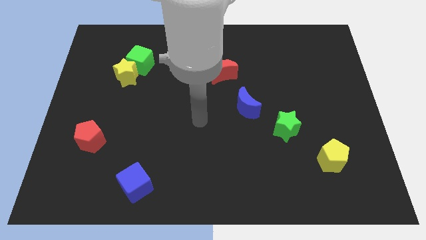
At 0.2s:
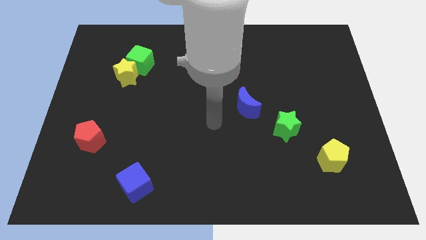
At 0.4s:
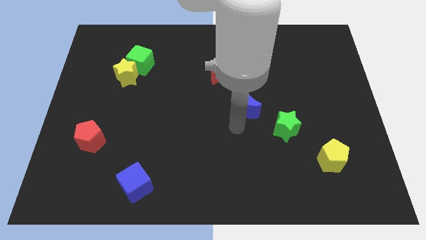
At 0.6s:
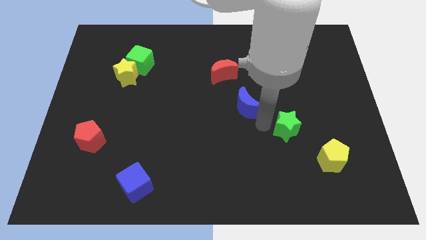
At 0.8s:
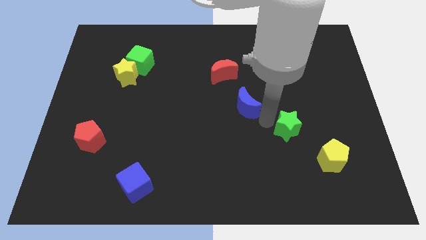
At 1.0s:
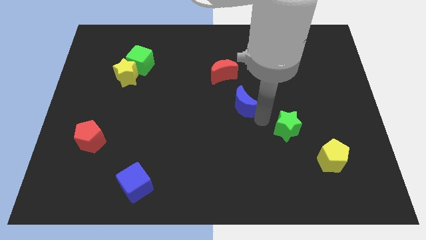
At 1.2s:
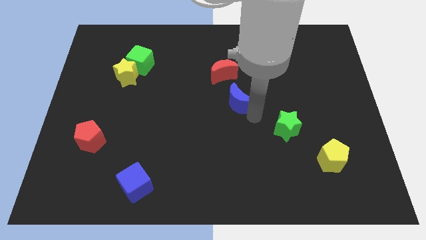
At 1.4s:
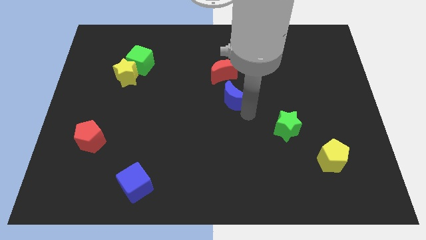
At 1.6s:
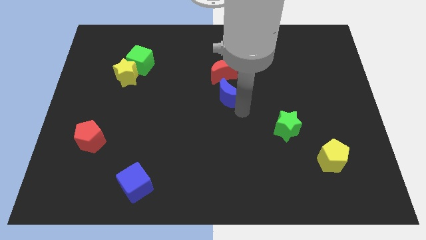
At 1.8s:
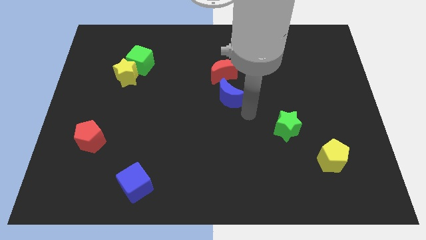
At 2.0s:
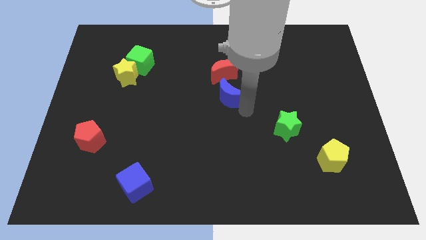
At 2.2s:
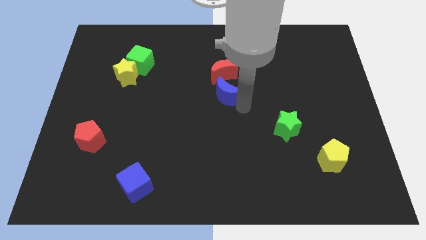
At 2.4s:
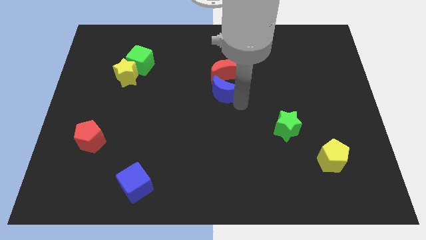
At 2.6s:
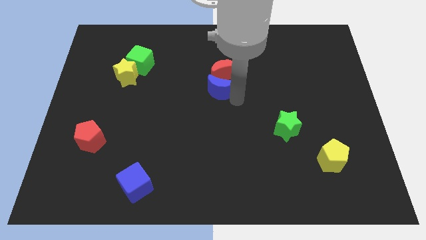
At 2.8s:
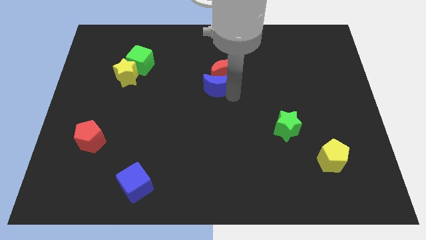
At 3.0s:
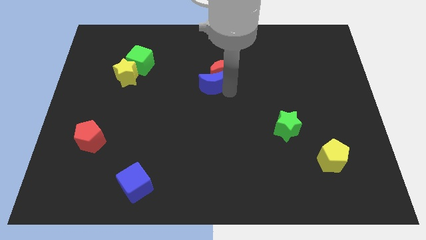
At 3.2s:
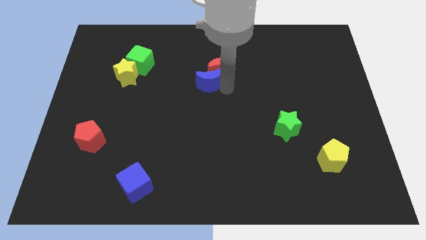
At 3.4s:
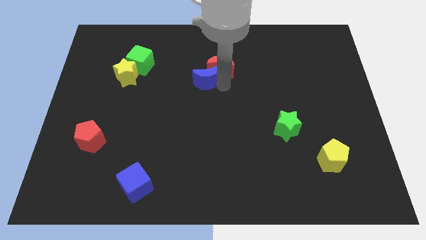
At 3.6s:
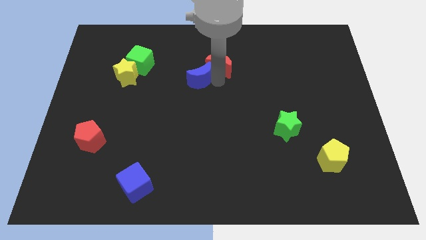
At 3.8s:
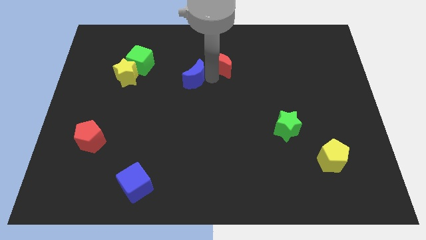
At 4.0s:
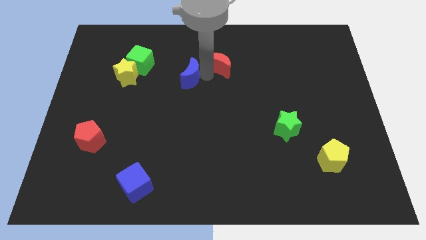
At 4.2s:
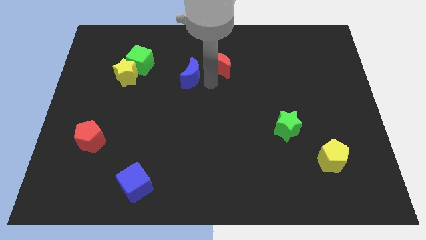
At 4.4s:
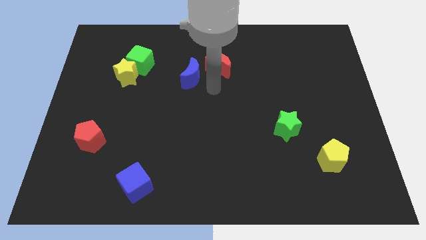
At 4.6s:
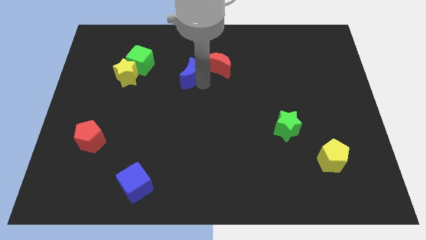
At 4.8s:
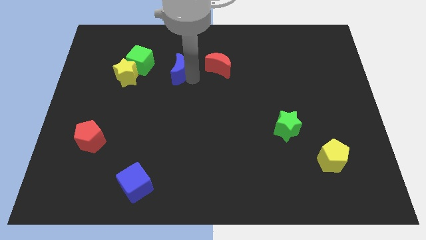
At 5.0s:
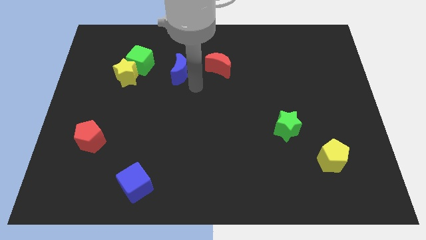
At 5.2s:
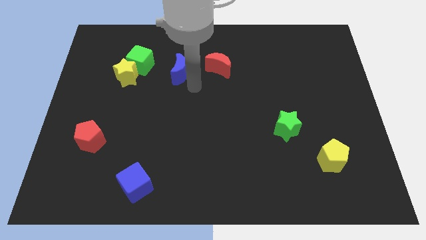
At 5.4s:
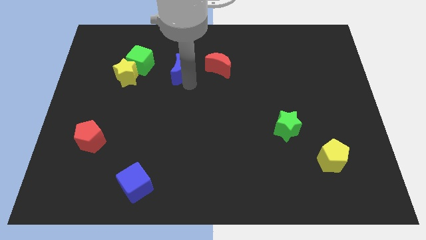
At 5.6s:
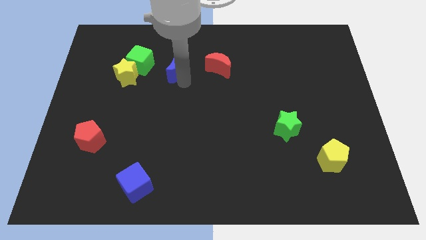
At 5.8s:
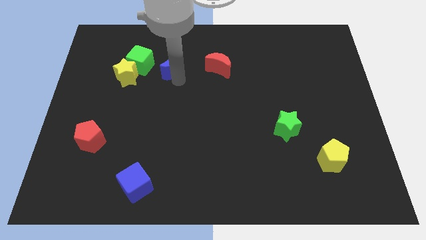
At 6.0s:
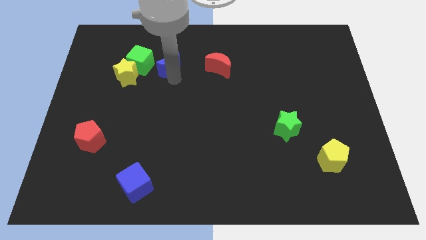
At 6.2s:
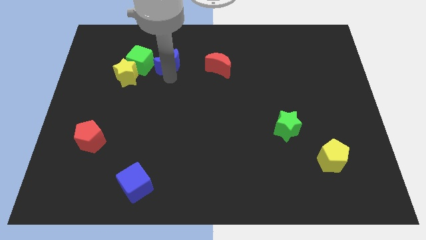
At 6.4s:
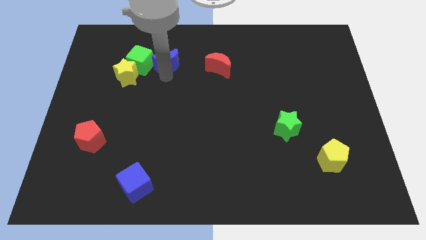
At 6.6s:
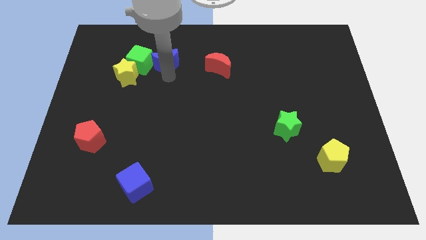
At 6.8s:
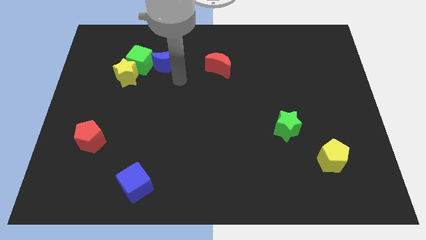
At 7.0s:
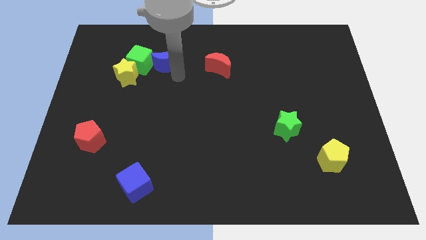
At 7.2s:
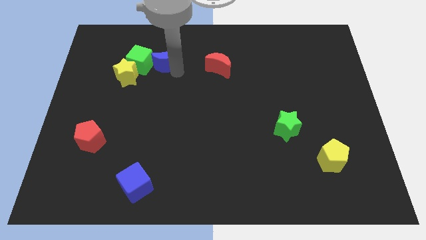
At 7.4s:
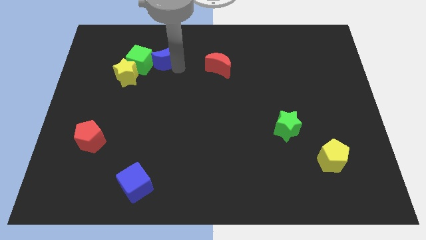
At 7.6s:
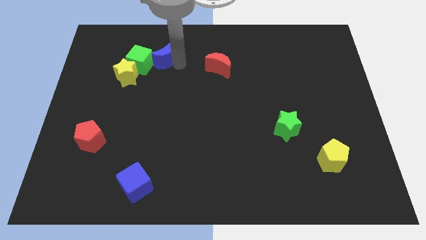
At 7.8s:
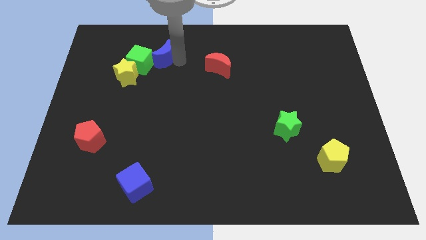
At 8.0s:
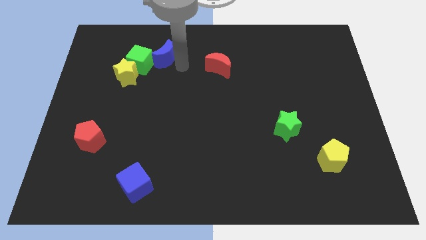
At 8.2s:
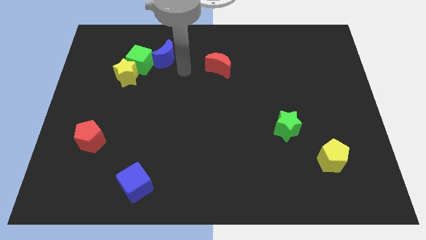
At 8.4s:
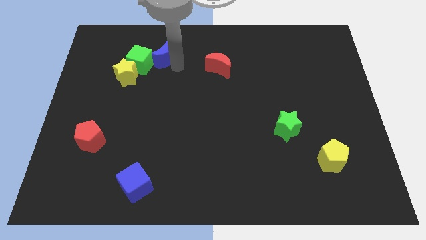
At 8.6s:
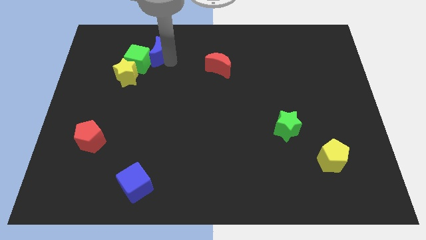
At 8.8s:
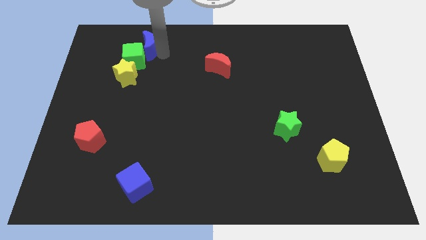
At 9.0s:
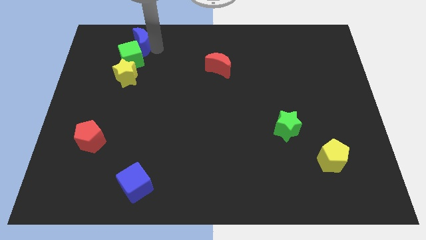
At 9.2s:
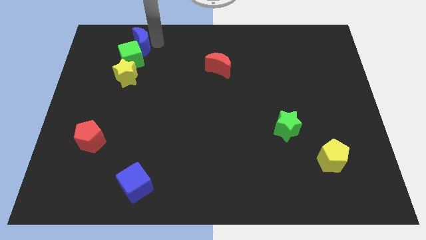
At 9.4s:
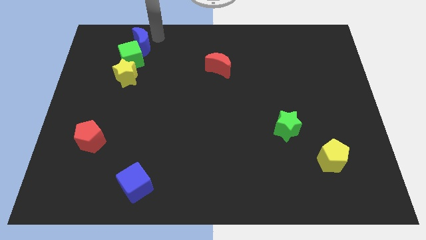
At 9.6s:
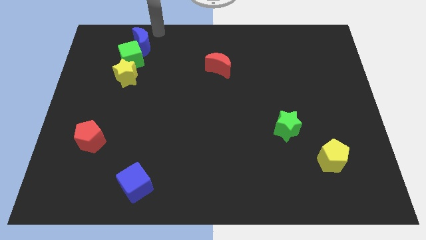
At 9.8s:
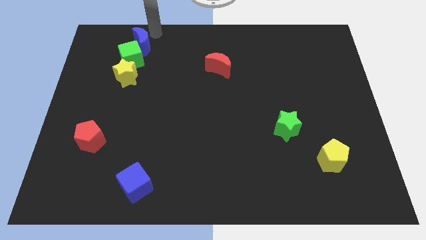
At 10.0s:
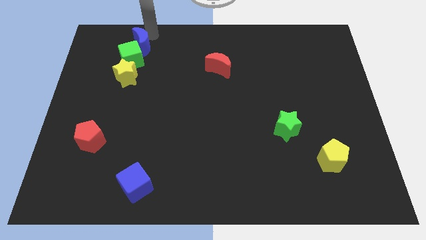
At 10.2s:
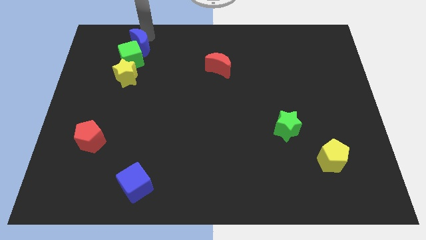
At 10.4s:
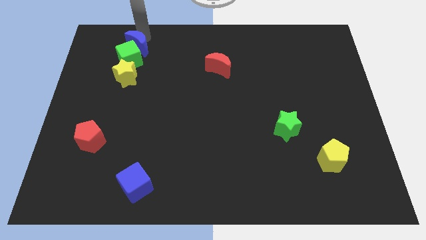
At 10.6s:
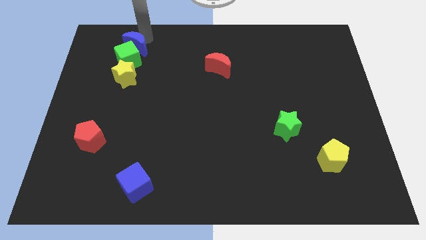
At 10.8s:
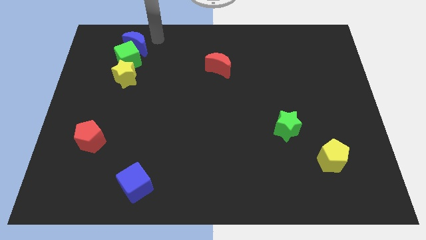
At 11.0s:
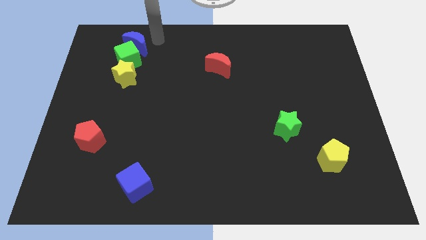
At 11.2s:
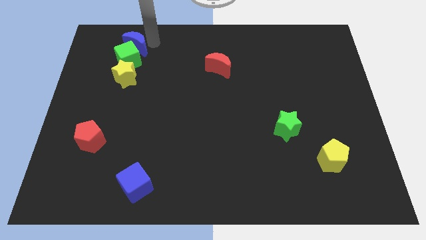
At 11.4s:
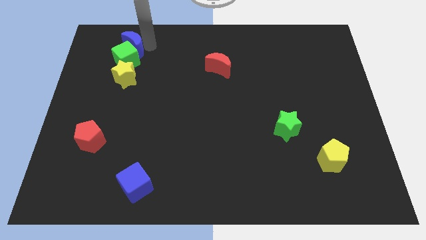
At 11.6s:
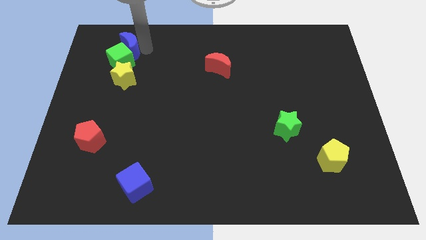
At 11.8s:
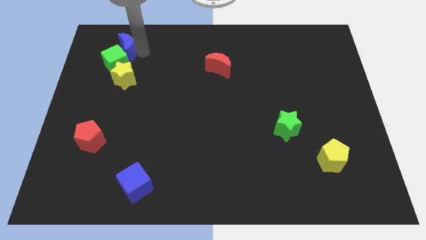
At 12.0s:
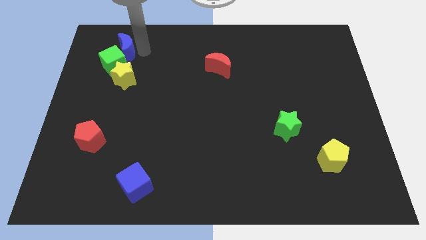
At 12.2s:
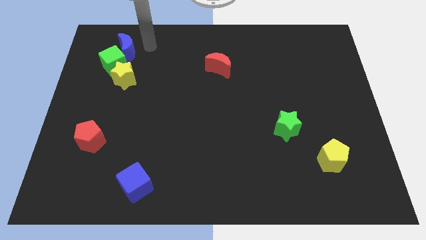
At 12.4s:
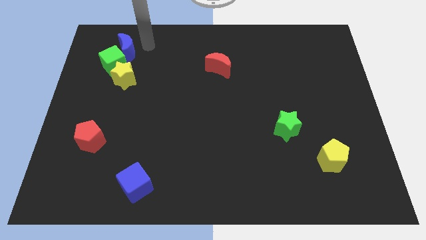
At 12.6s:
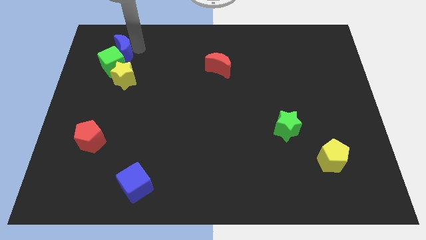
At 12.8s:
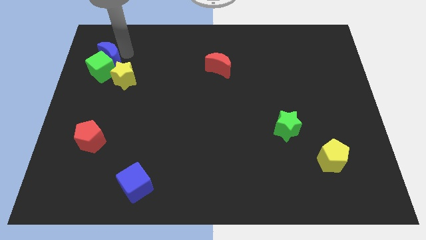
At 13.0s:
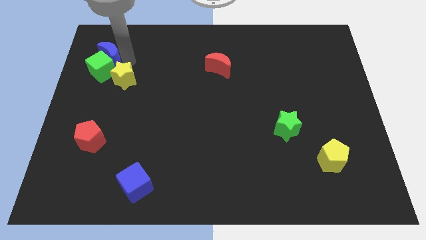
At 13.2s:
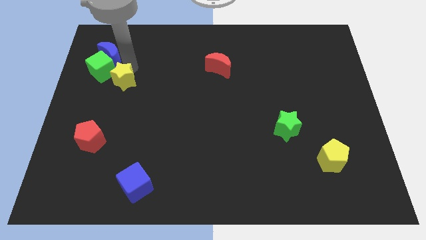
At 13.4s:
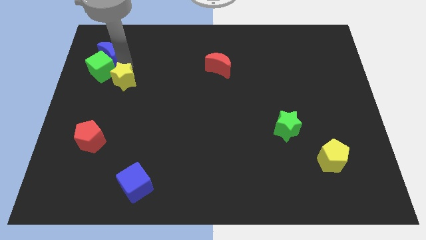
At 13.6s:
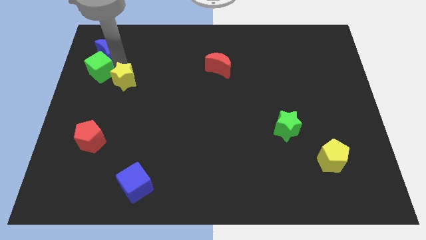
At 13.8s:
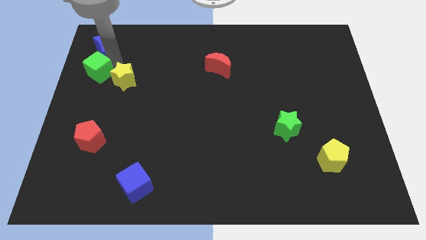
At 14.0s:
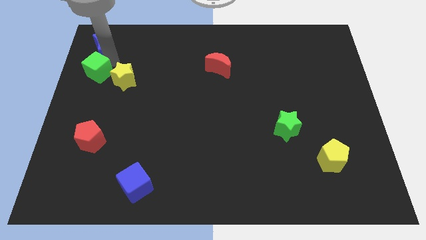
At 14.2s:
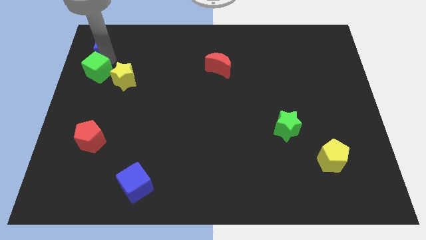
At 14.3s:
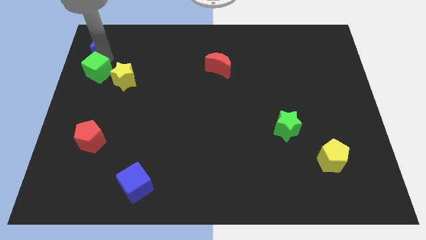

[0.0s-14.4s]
slide the blue moon to the top left of the board

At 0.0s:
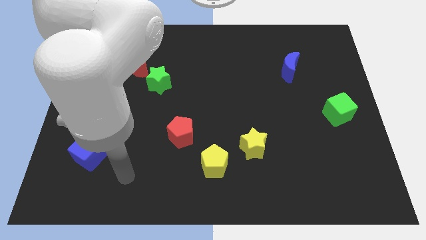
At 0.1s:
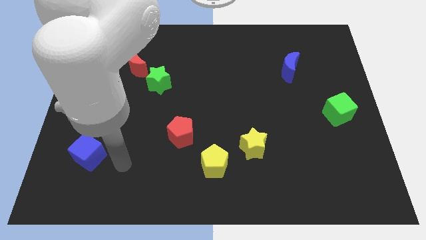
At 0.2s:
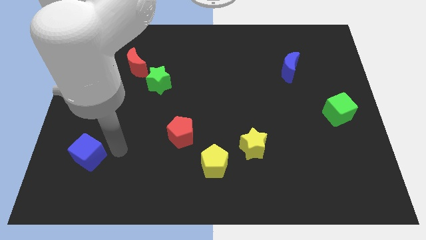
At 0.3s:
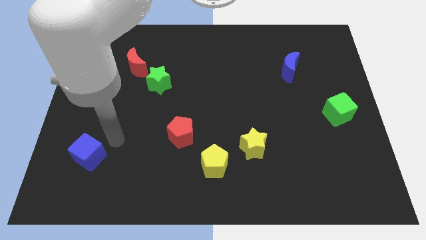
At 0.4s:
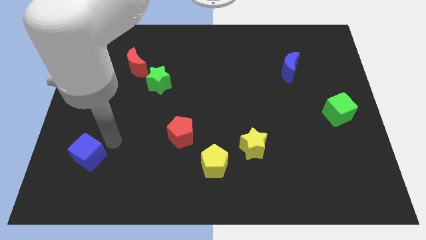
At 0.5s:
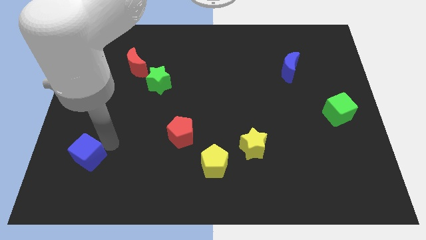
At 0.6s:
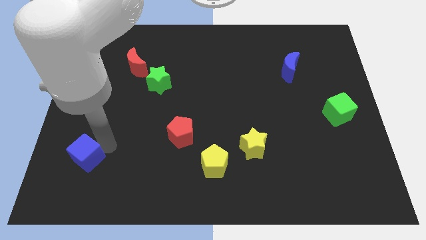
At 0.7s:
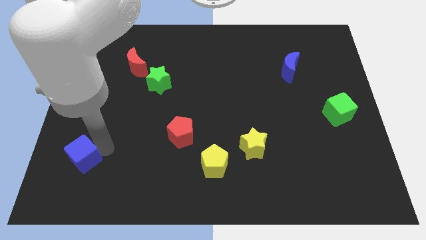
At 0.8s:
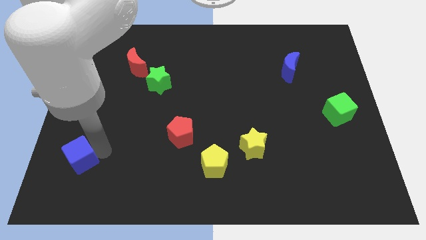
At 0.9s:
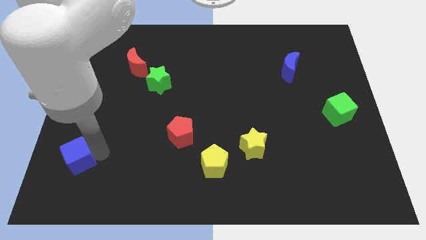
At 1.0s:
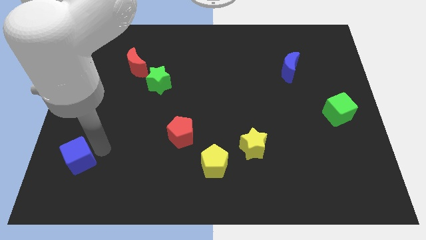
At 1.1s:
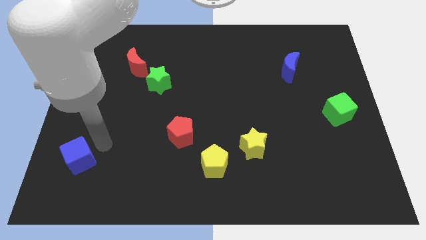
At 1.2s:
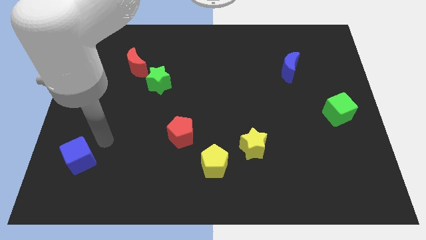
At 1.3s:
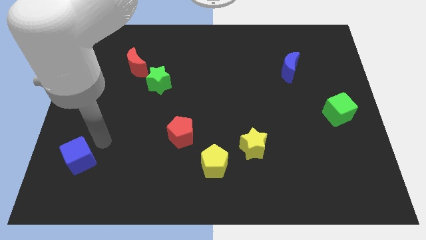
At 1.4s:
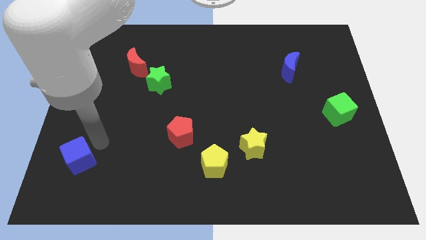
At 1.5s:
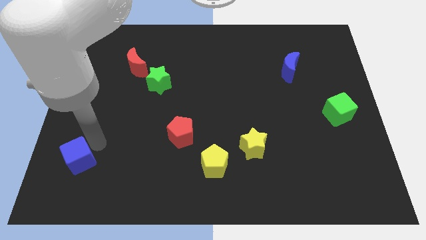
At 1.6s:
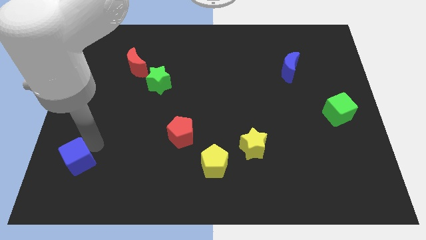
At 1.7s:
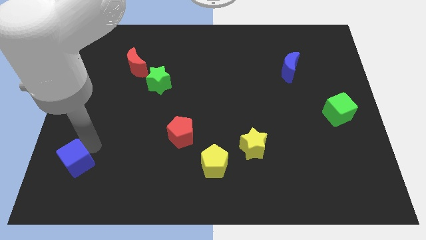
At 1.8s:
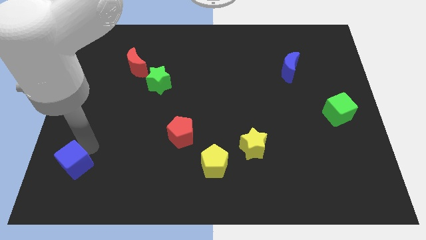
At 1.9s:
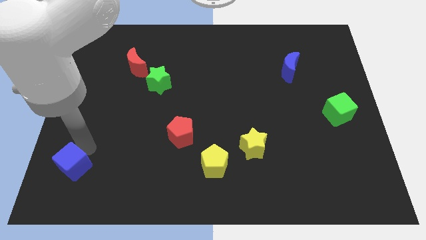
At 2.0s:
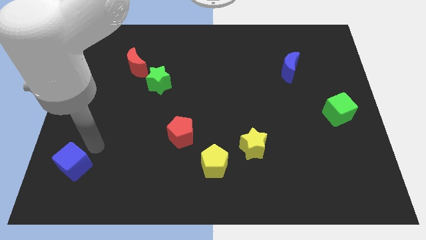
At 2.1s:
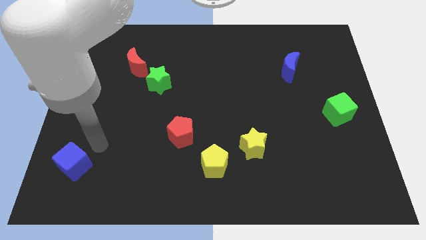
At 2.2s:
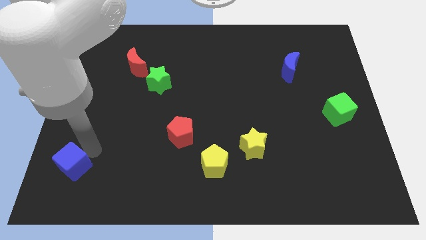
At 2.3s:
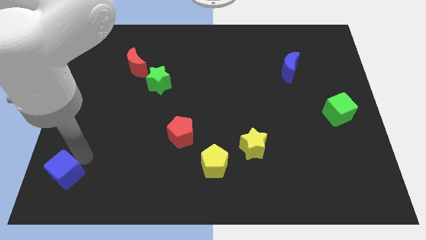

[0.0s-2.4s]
move the blue cube to the bottom left corner
